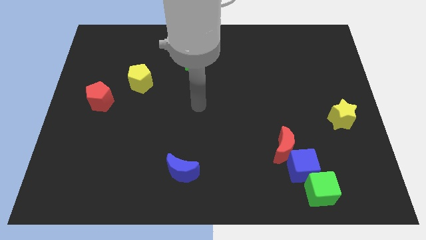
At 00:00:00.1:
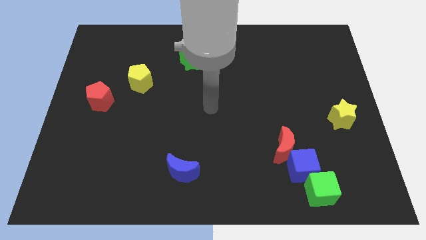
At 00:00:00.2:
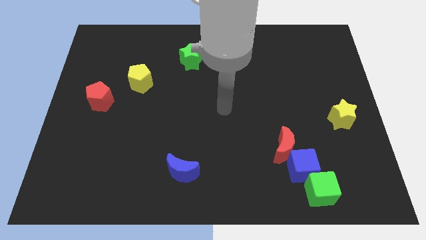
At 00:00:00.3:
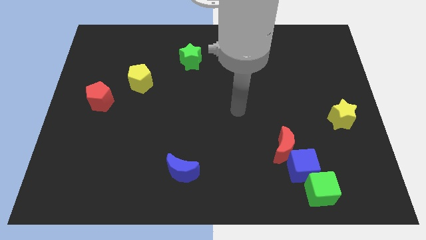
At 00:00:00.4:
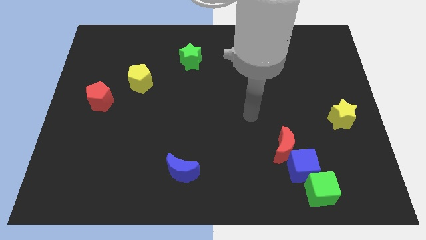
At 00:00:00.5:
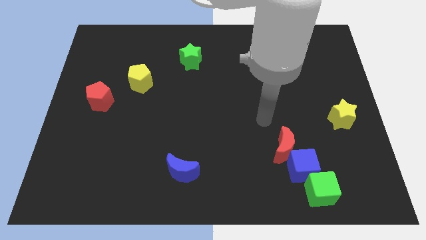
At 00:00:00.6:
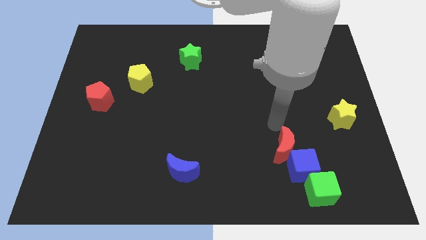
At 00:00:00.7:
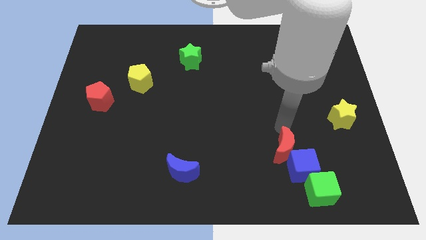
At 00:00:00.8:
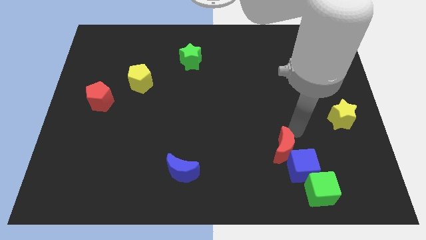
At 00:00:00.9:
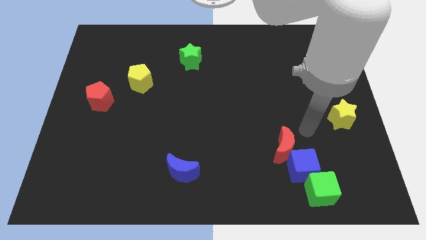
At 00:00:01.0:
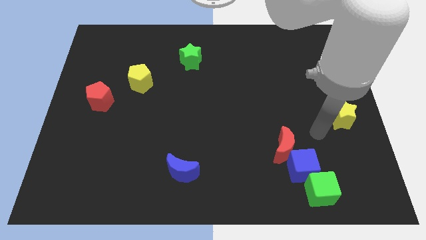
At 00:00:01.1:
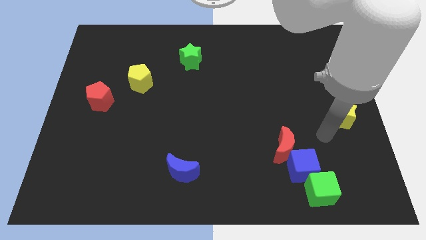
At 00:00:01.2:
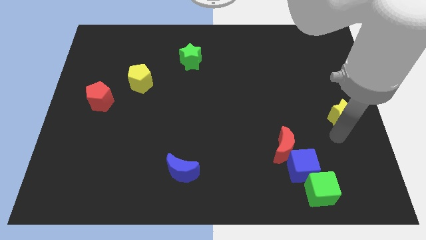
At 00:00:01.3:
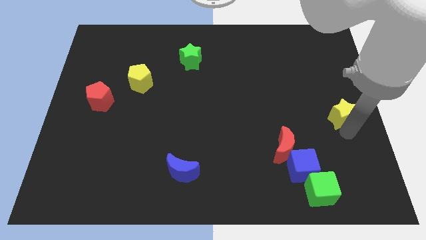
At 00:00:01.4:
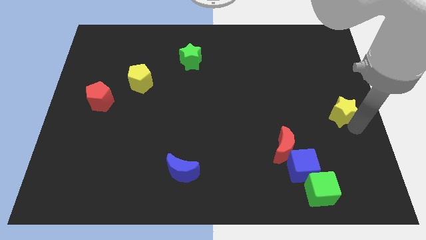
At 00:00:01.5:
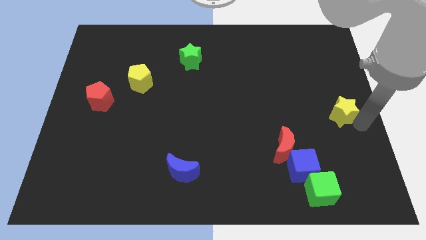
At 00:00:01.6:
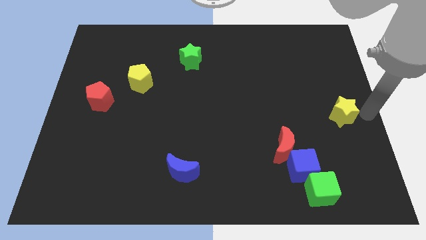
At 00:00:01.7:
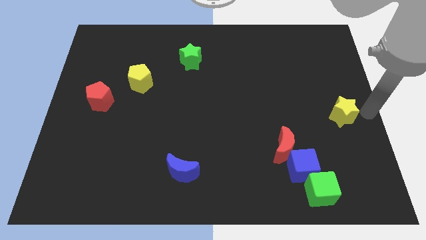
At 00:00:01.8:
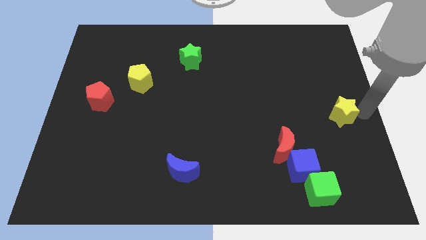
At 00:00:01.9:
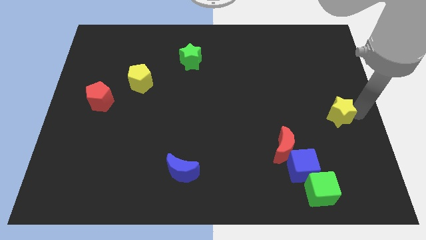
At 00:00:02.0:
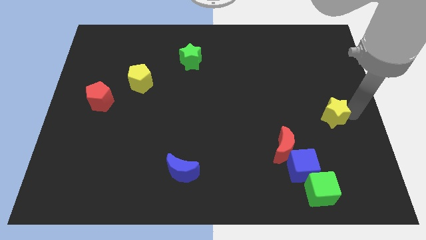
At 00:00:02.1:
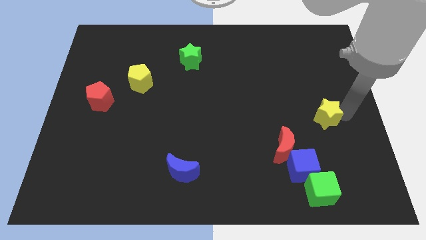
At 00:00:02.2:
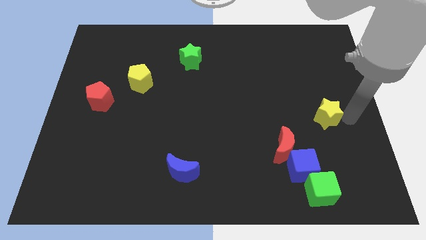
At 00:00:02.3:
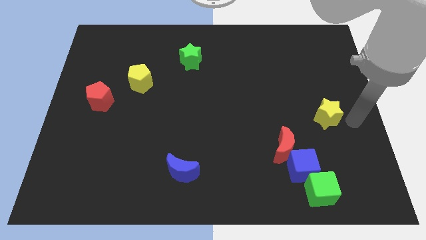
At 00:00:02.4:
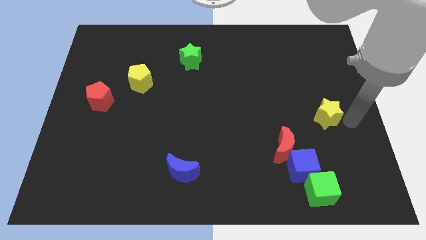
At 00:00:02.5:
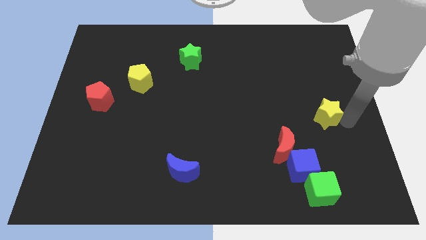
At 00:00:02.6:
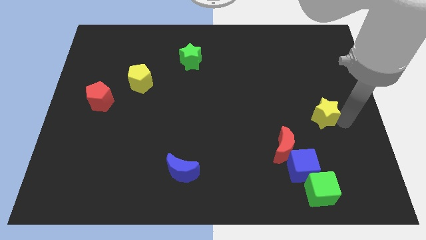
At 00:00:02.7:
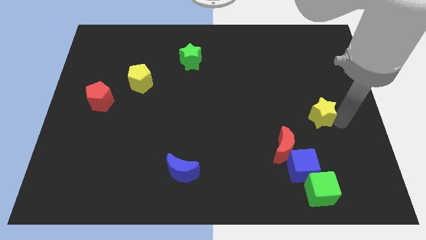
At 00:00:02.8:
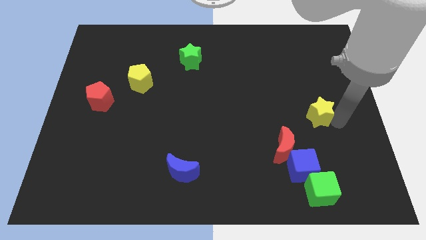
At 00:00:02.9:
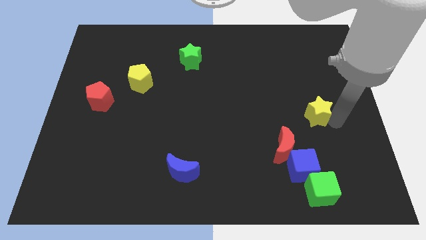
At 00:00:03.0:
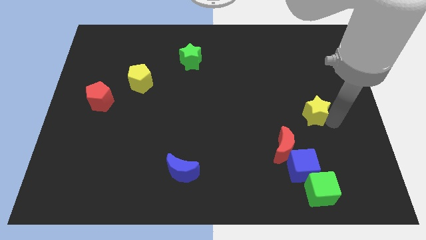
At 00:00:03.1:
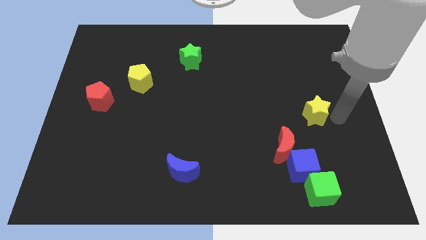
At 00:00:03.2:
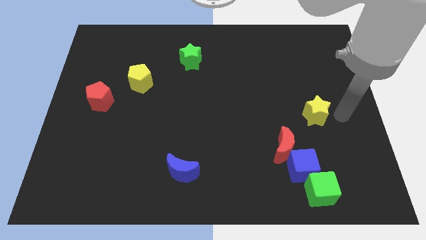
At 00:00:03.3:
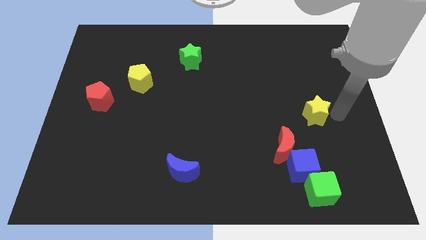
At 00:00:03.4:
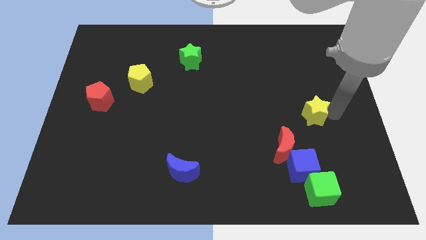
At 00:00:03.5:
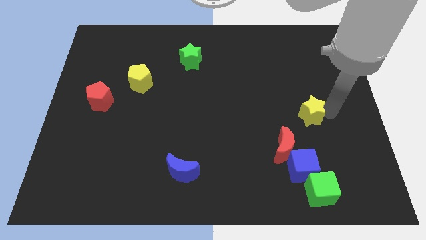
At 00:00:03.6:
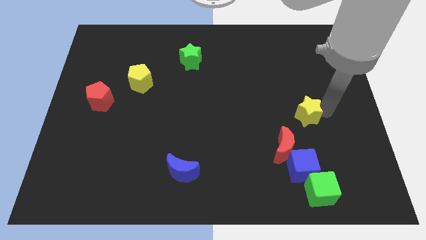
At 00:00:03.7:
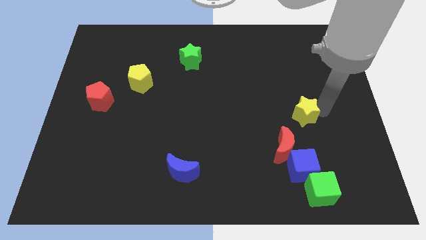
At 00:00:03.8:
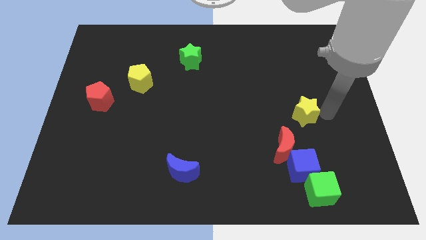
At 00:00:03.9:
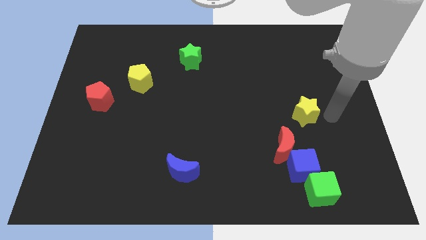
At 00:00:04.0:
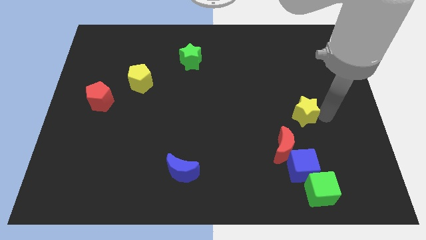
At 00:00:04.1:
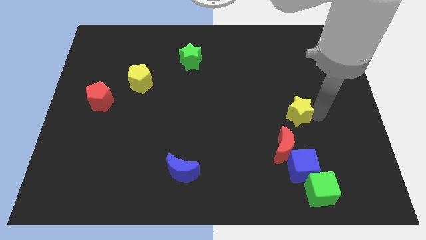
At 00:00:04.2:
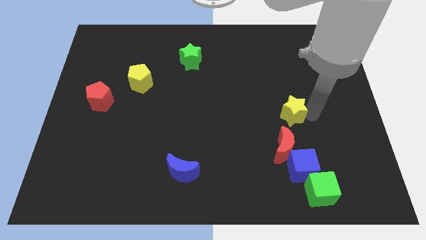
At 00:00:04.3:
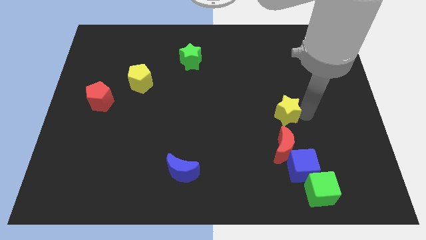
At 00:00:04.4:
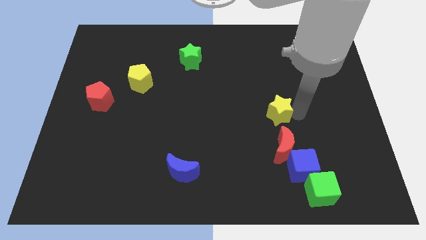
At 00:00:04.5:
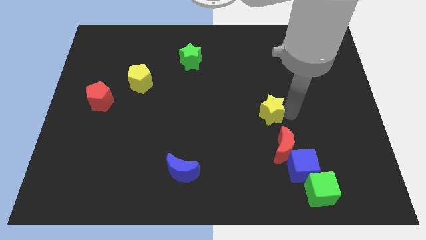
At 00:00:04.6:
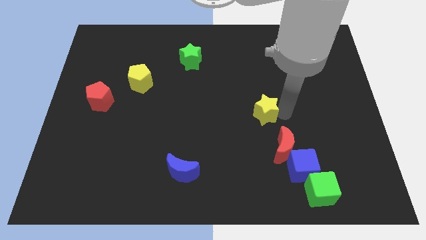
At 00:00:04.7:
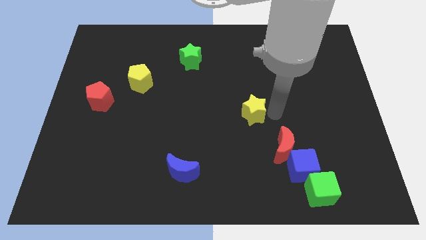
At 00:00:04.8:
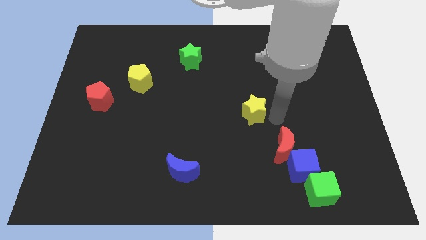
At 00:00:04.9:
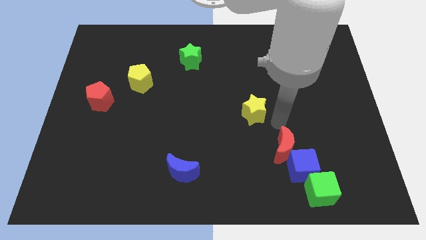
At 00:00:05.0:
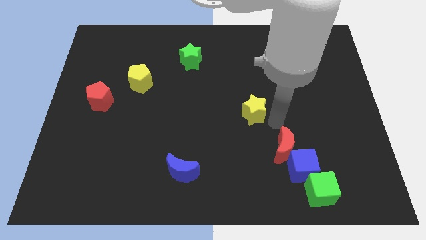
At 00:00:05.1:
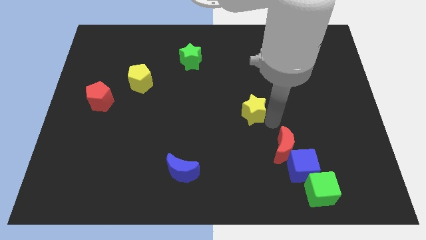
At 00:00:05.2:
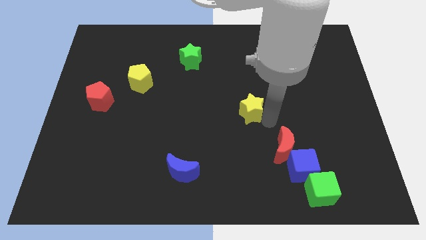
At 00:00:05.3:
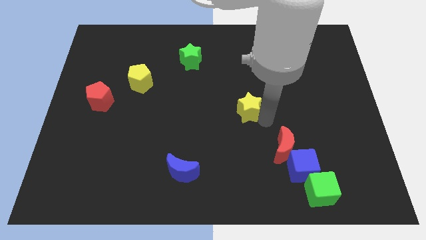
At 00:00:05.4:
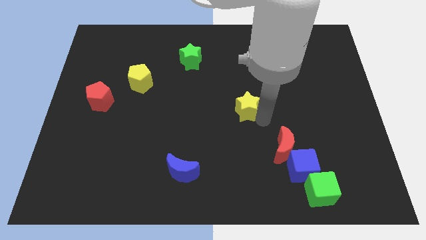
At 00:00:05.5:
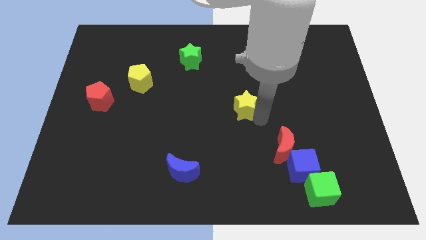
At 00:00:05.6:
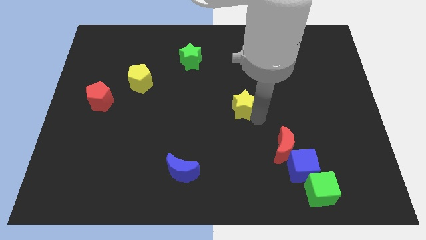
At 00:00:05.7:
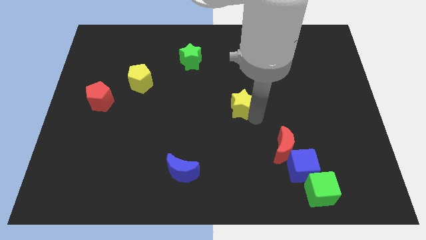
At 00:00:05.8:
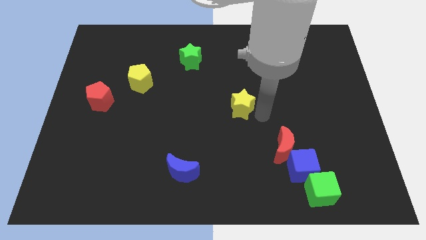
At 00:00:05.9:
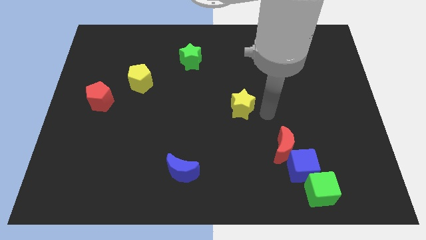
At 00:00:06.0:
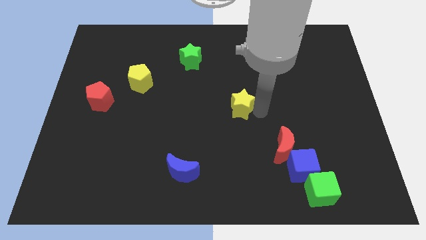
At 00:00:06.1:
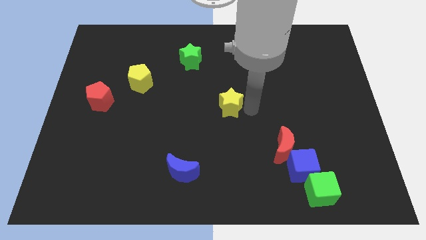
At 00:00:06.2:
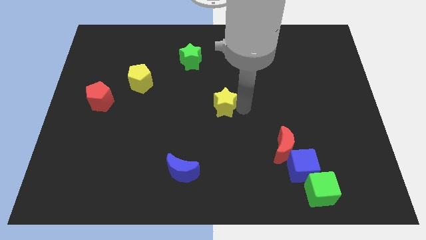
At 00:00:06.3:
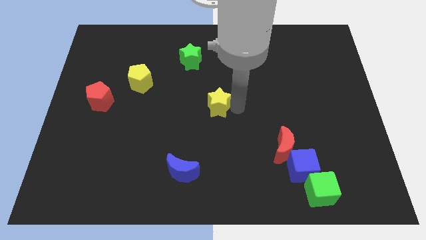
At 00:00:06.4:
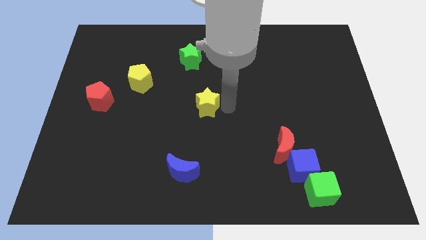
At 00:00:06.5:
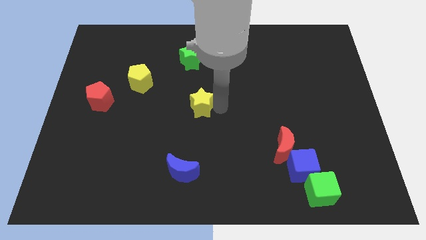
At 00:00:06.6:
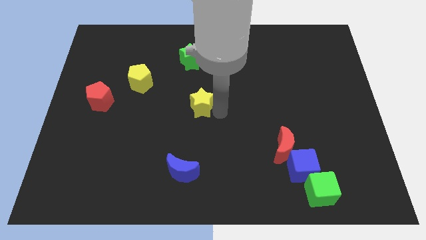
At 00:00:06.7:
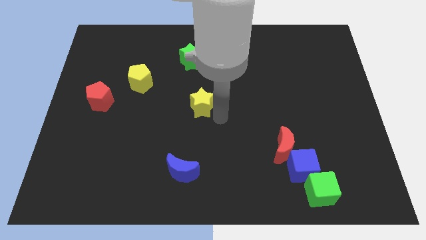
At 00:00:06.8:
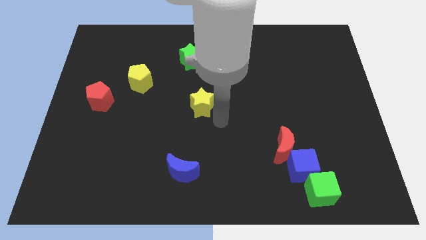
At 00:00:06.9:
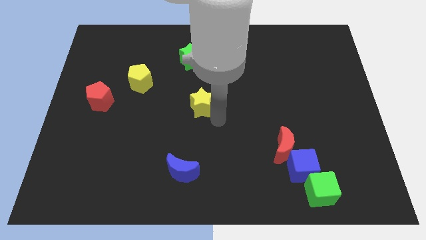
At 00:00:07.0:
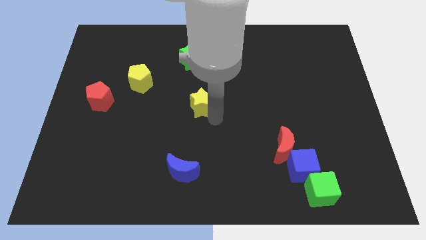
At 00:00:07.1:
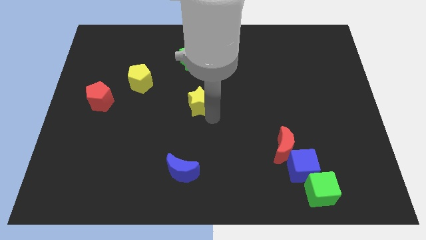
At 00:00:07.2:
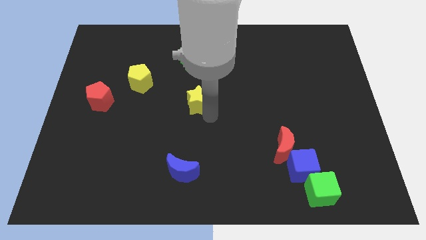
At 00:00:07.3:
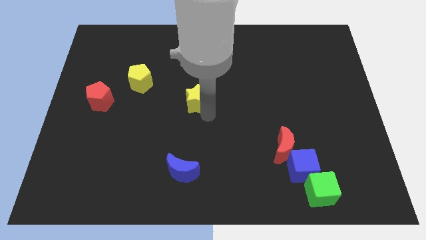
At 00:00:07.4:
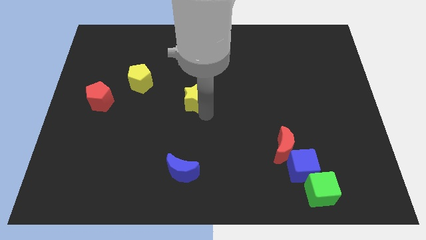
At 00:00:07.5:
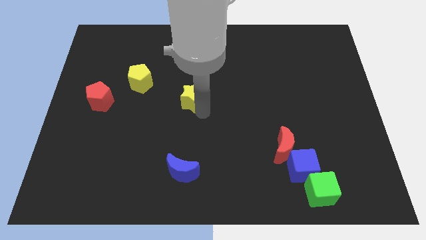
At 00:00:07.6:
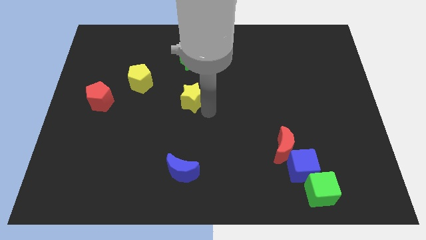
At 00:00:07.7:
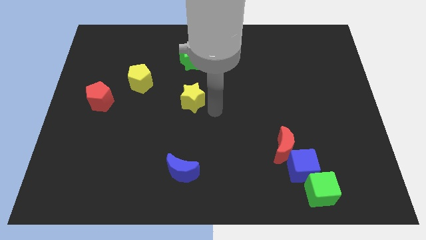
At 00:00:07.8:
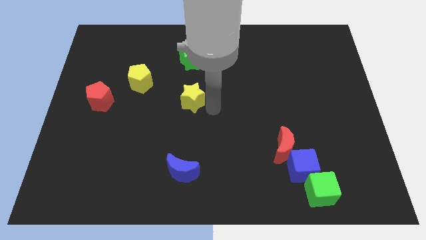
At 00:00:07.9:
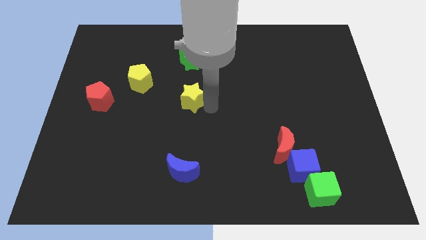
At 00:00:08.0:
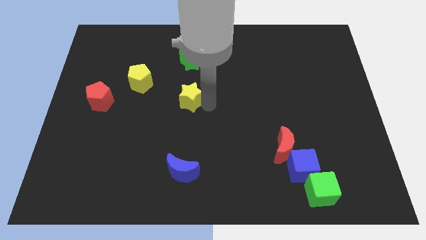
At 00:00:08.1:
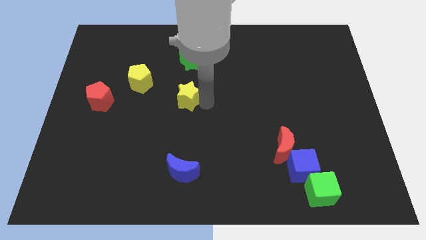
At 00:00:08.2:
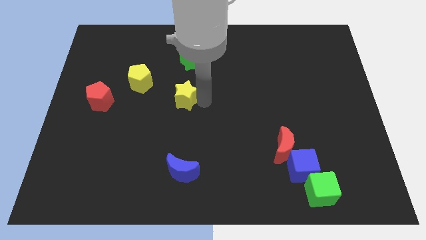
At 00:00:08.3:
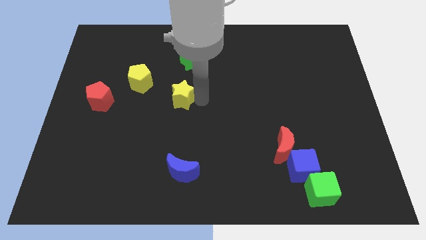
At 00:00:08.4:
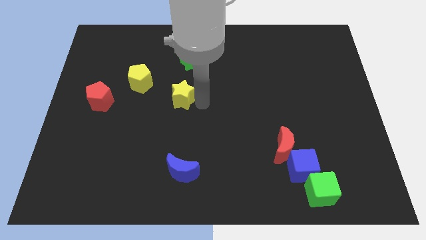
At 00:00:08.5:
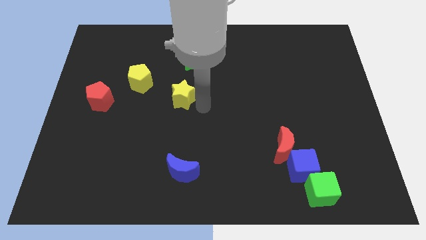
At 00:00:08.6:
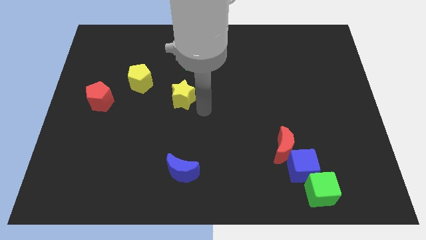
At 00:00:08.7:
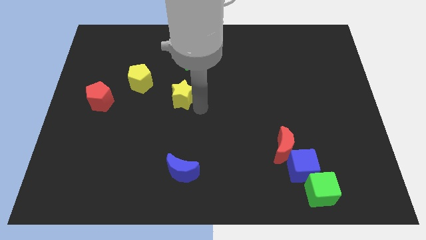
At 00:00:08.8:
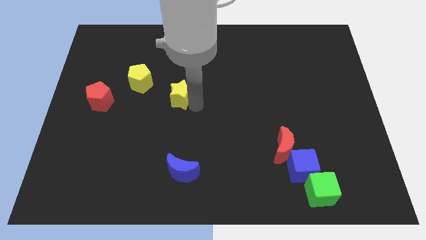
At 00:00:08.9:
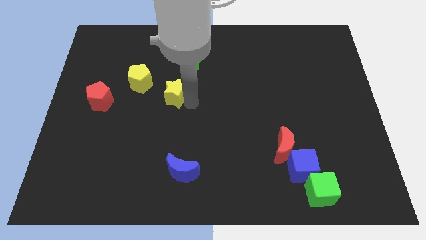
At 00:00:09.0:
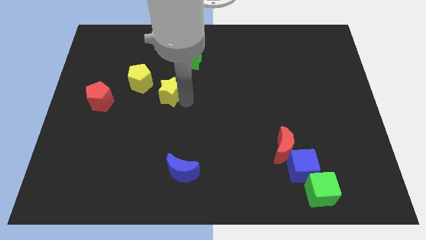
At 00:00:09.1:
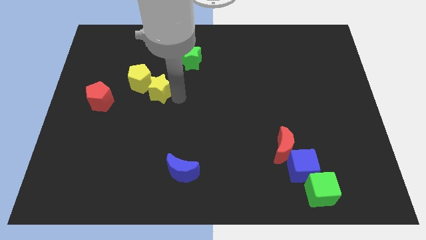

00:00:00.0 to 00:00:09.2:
move the yellow star to the yellow pentagon
